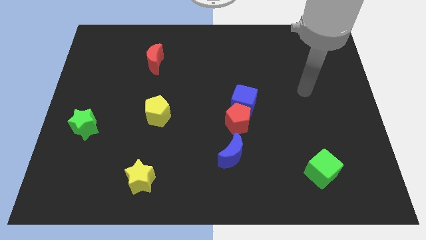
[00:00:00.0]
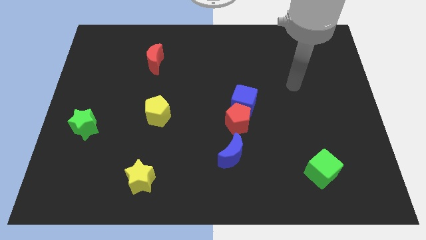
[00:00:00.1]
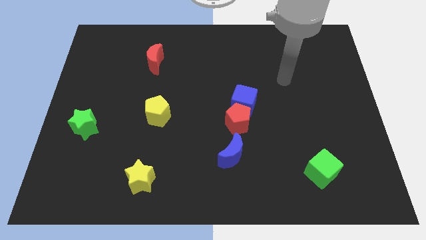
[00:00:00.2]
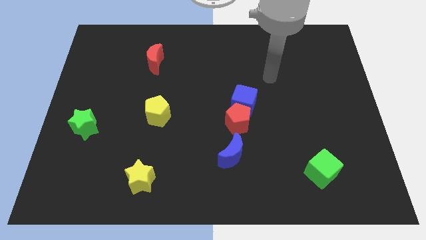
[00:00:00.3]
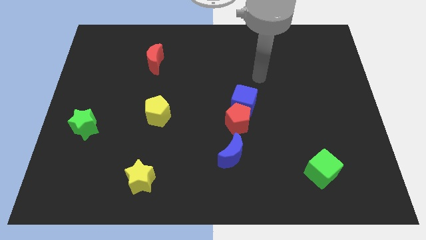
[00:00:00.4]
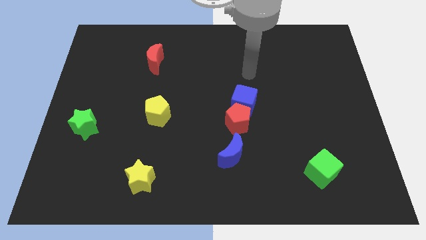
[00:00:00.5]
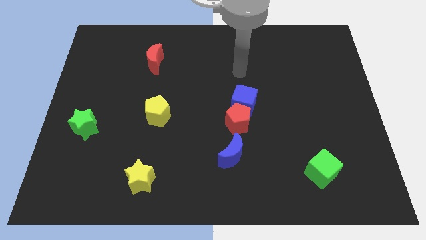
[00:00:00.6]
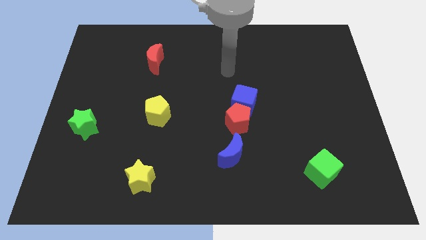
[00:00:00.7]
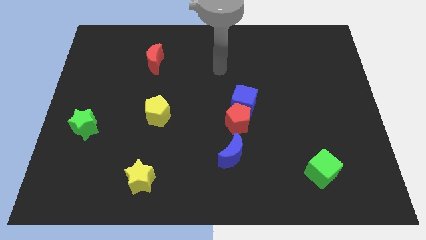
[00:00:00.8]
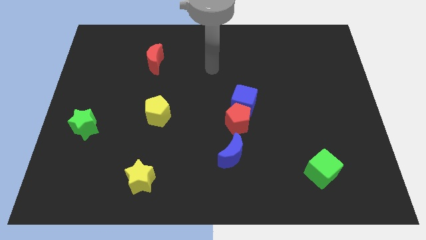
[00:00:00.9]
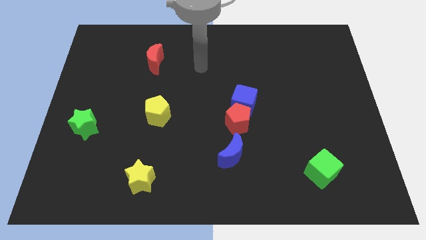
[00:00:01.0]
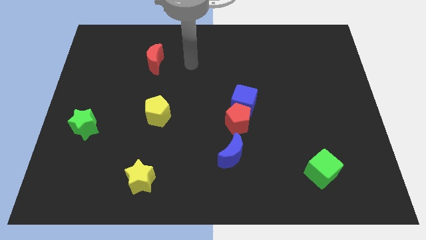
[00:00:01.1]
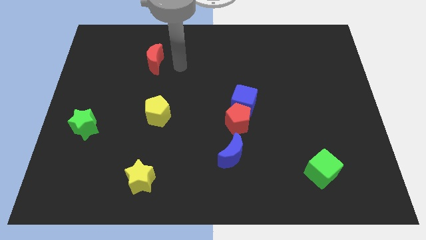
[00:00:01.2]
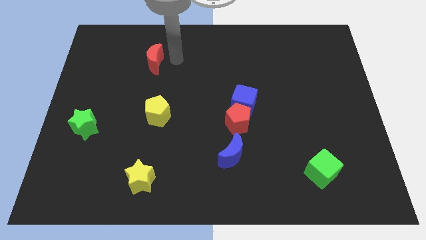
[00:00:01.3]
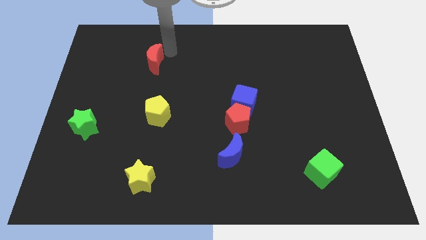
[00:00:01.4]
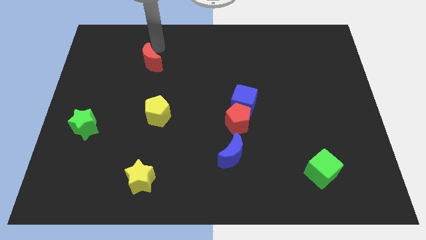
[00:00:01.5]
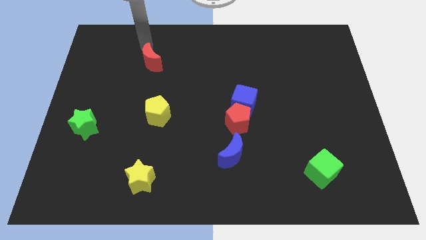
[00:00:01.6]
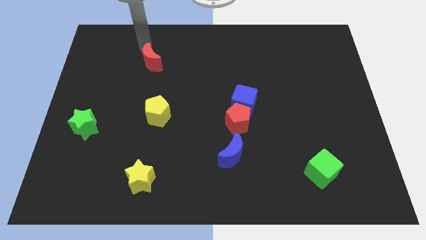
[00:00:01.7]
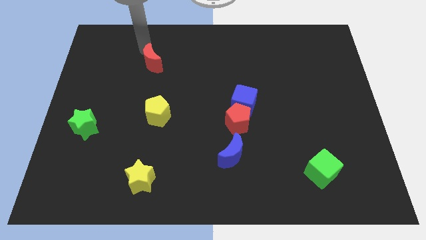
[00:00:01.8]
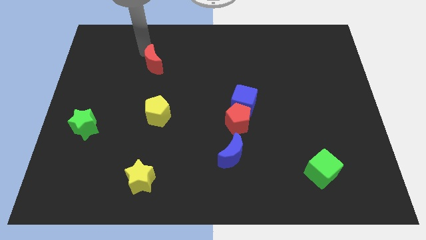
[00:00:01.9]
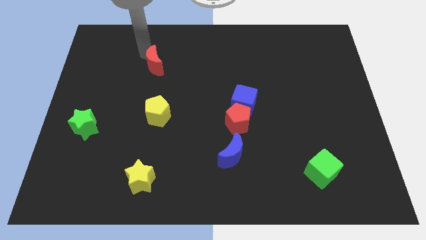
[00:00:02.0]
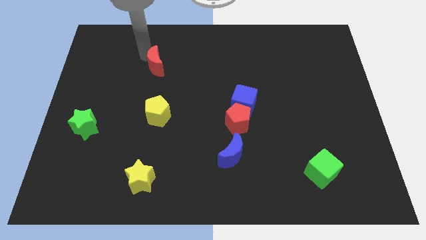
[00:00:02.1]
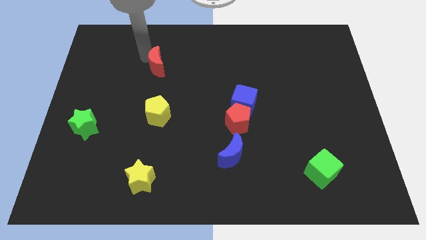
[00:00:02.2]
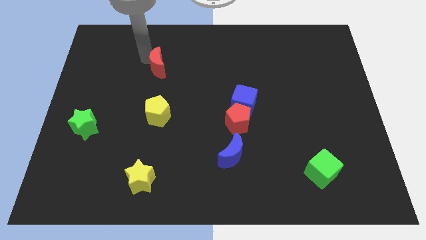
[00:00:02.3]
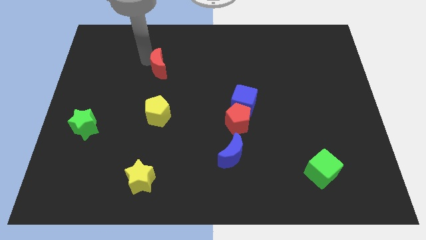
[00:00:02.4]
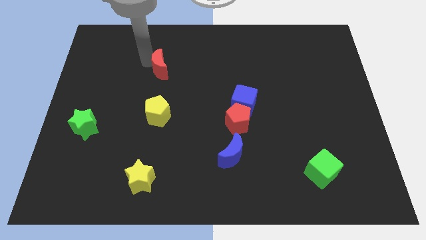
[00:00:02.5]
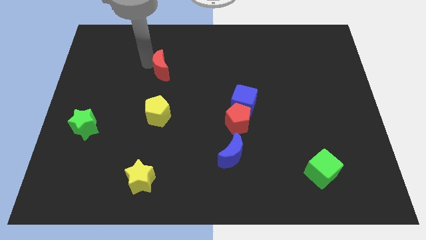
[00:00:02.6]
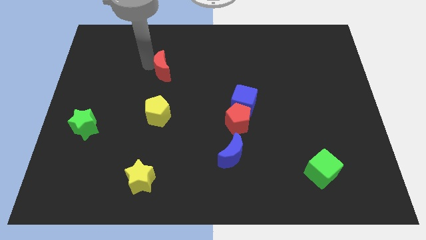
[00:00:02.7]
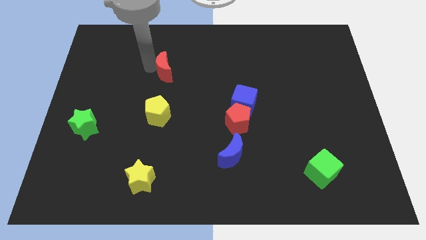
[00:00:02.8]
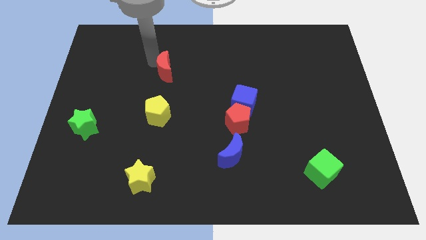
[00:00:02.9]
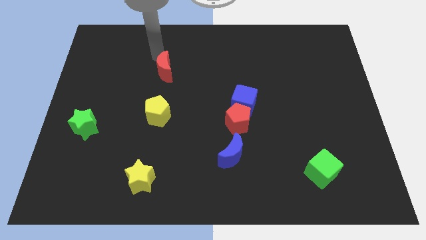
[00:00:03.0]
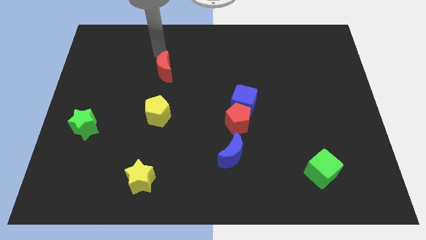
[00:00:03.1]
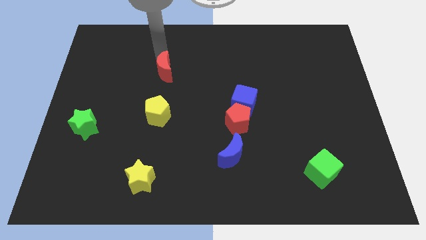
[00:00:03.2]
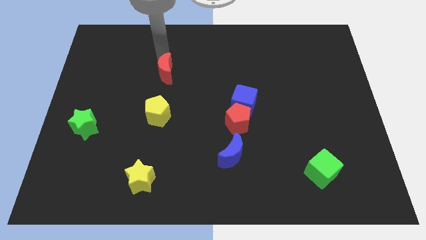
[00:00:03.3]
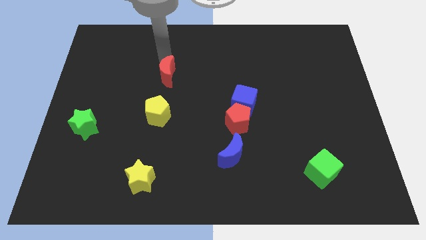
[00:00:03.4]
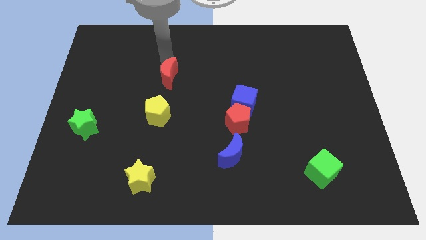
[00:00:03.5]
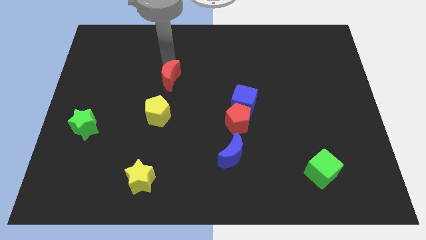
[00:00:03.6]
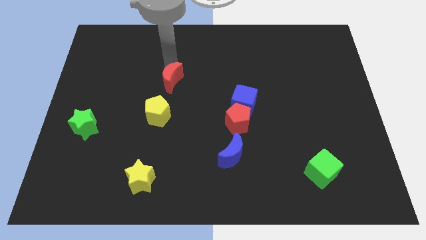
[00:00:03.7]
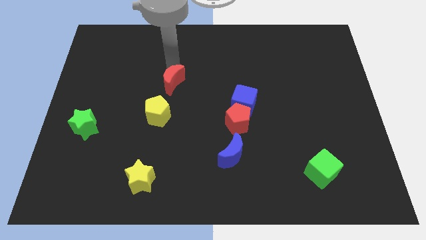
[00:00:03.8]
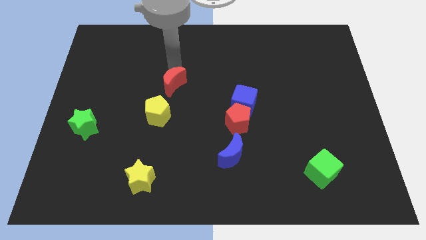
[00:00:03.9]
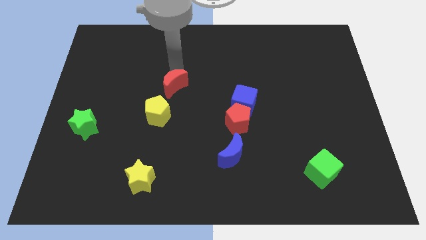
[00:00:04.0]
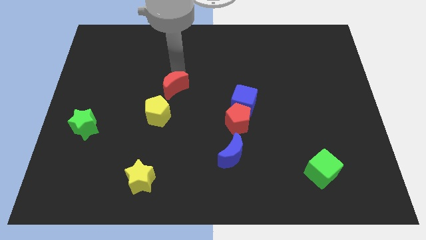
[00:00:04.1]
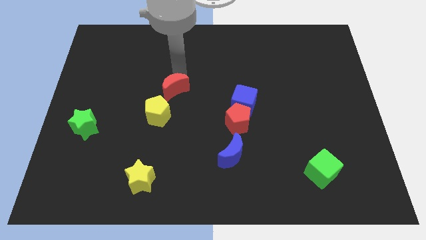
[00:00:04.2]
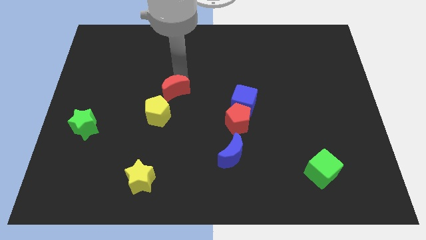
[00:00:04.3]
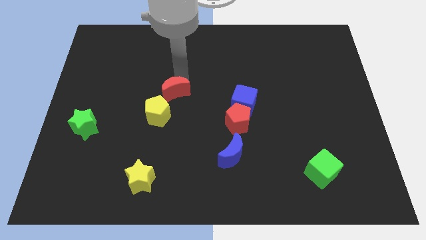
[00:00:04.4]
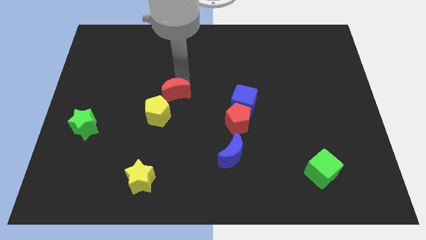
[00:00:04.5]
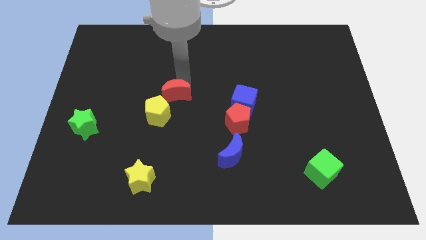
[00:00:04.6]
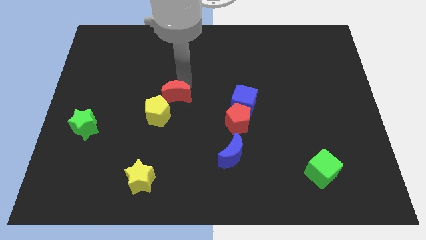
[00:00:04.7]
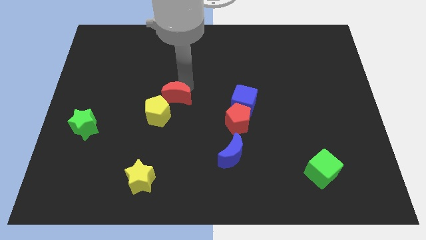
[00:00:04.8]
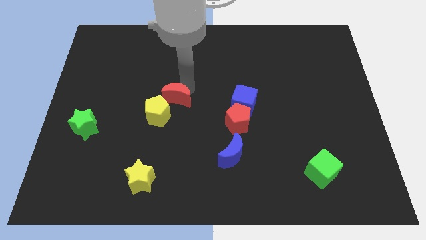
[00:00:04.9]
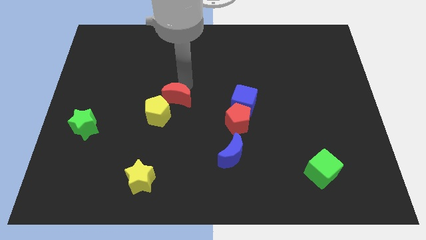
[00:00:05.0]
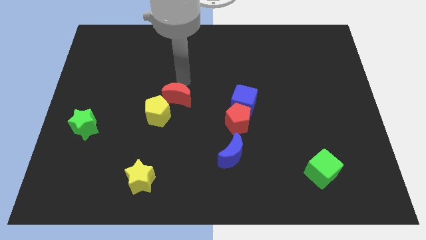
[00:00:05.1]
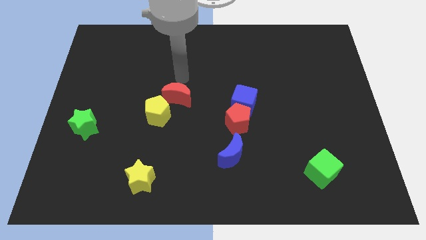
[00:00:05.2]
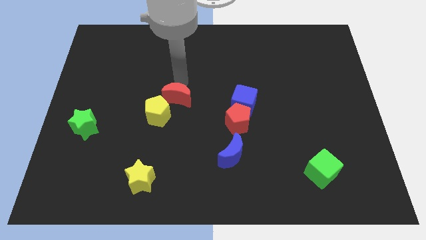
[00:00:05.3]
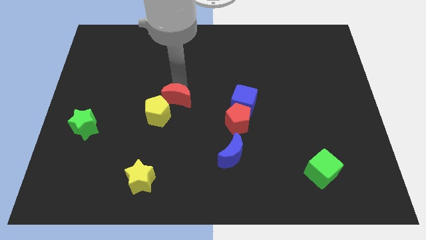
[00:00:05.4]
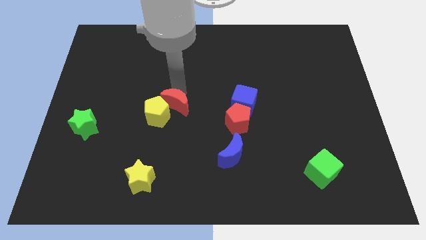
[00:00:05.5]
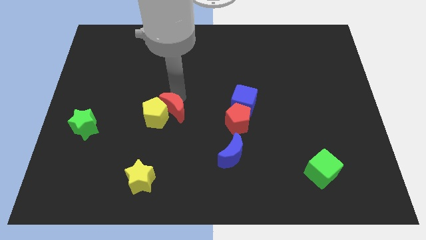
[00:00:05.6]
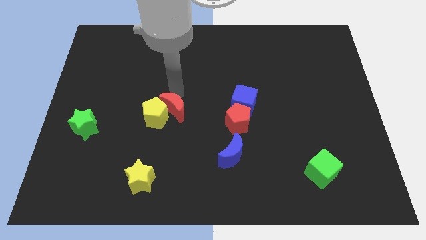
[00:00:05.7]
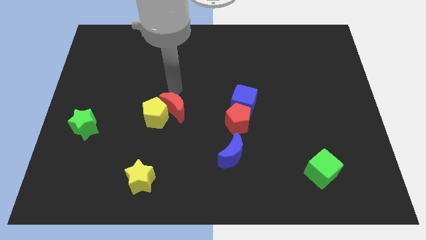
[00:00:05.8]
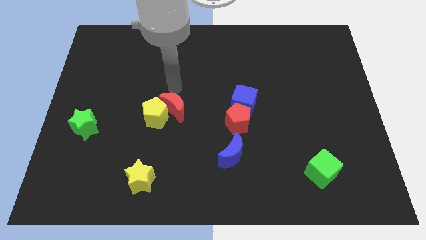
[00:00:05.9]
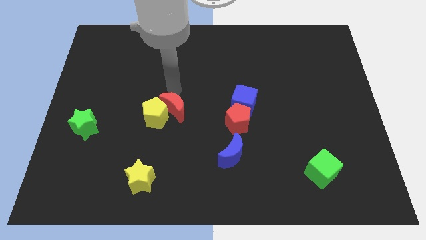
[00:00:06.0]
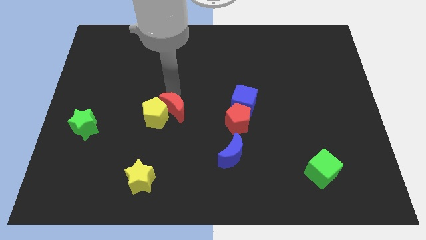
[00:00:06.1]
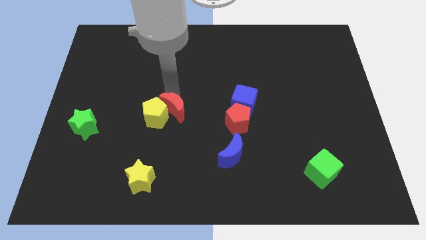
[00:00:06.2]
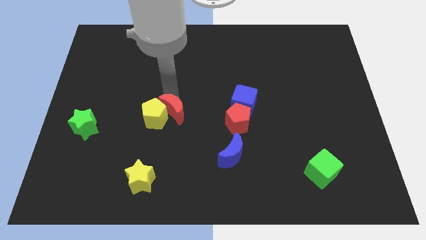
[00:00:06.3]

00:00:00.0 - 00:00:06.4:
move the red moon to the bottom right side of the yellow pentagon
